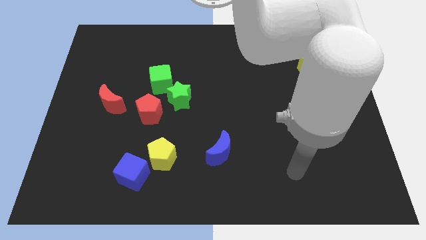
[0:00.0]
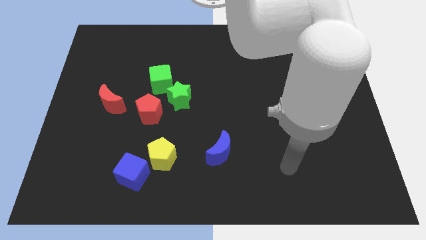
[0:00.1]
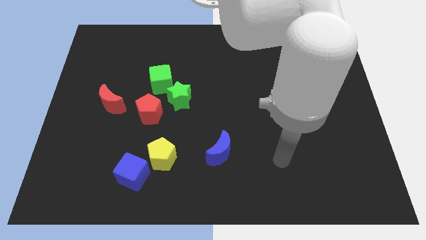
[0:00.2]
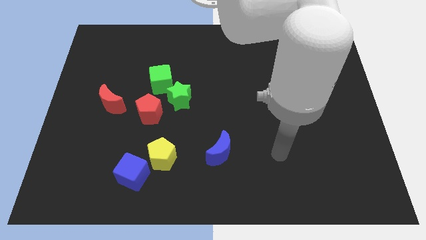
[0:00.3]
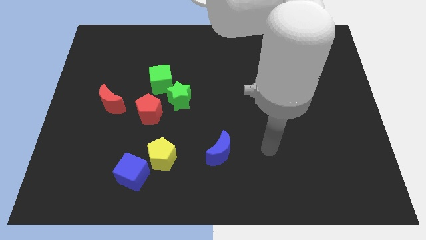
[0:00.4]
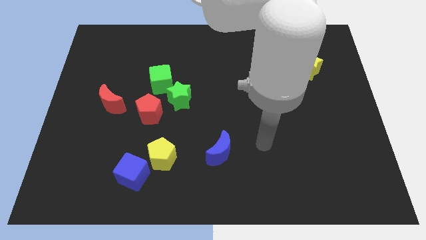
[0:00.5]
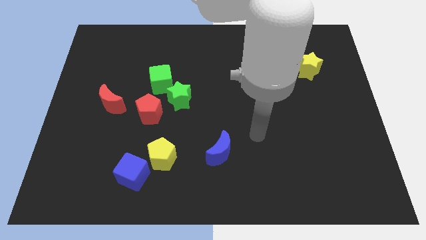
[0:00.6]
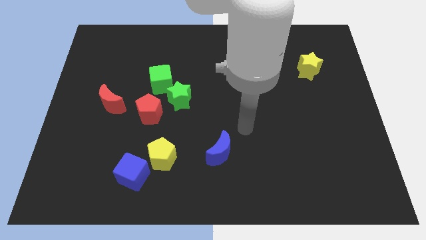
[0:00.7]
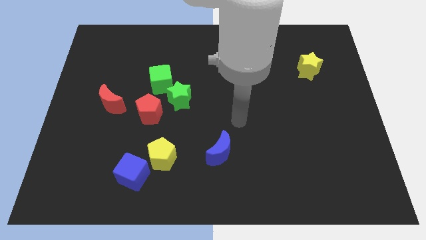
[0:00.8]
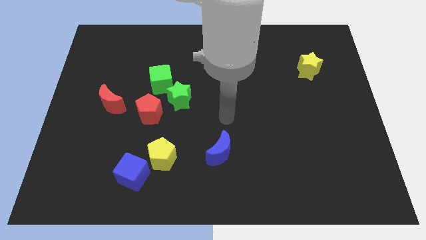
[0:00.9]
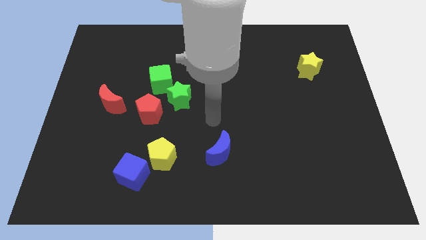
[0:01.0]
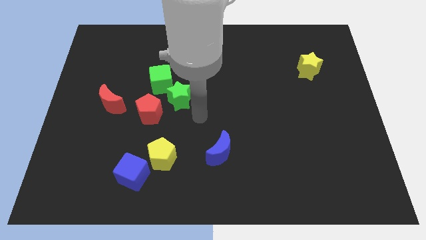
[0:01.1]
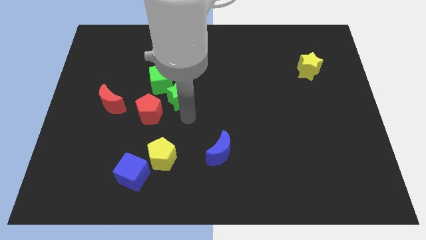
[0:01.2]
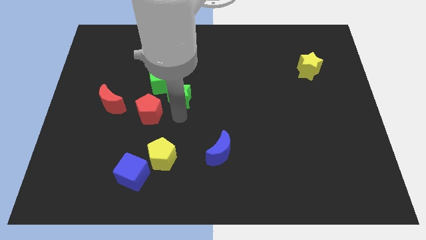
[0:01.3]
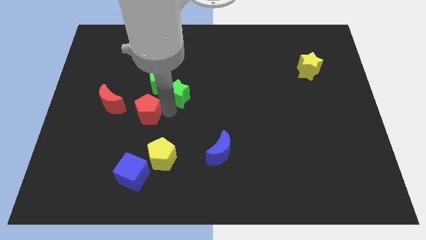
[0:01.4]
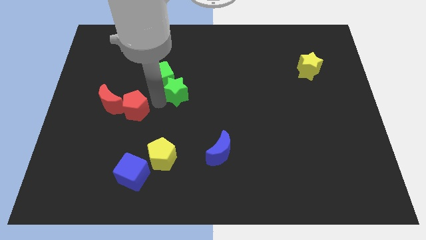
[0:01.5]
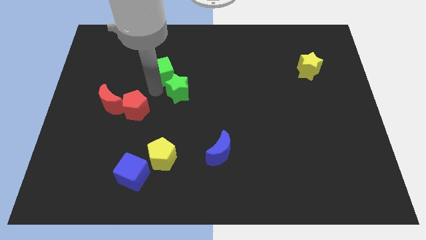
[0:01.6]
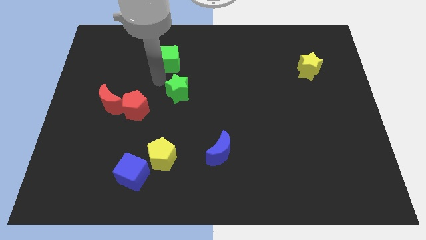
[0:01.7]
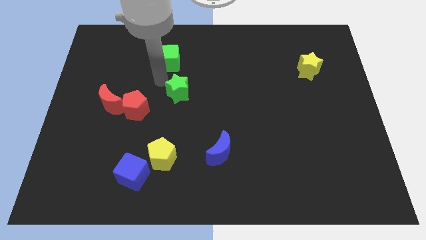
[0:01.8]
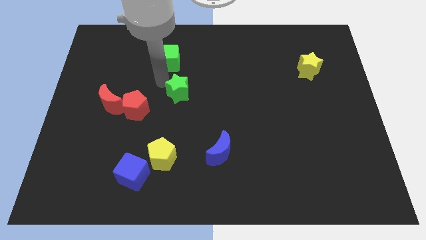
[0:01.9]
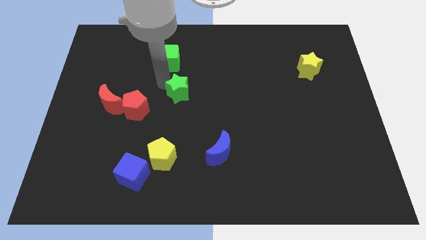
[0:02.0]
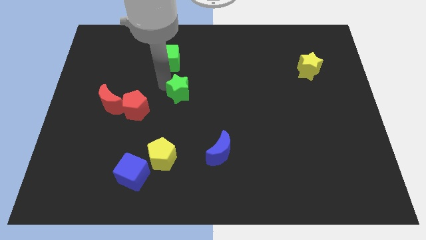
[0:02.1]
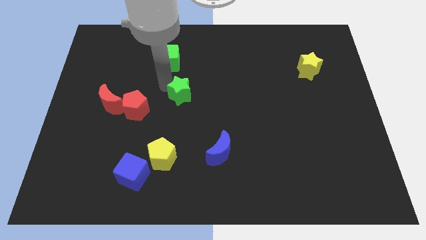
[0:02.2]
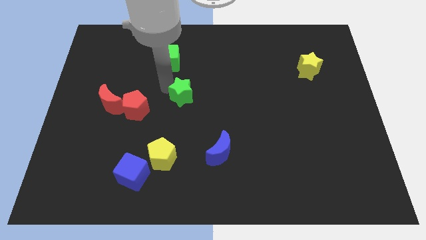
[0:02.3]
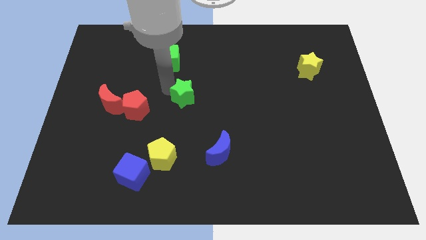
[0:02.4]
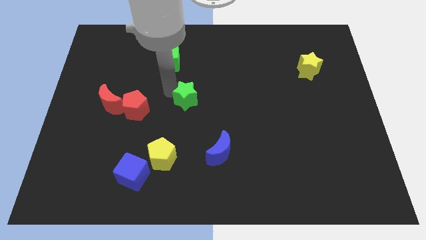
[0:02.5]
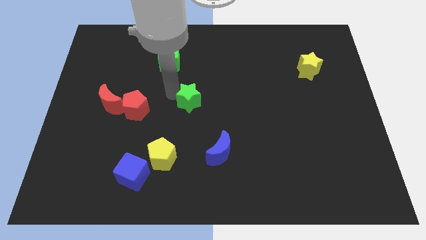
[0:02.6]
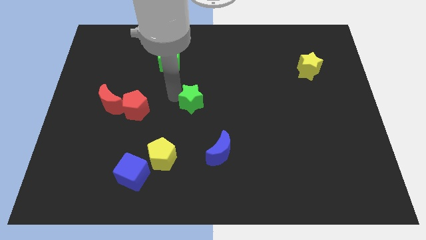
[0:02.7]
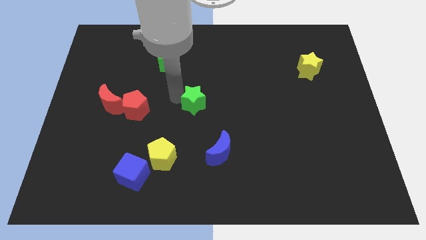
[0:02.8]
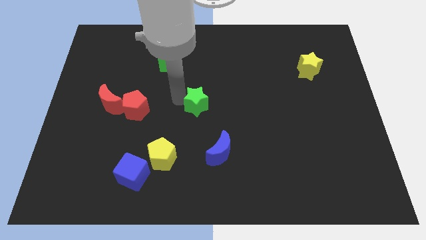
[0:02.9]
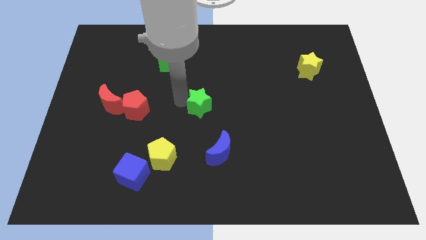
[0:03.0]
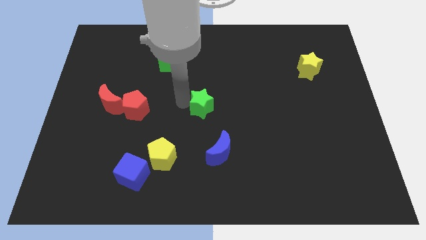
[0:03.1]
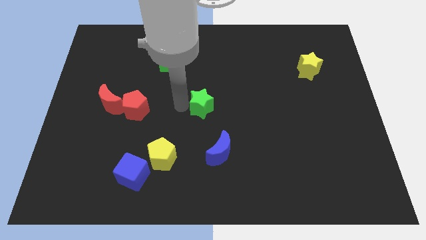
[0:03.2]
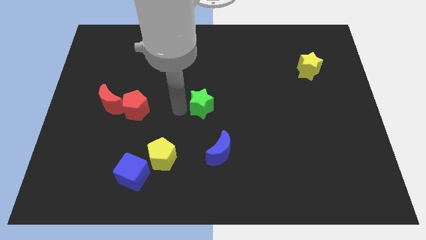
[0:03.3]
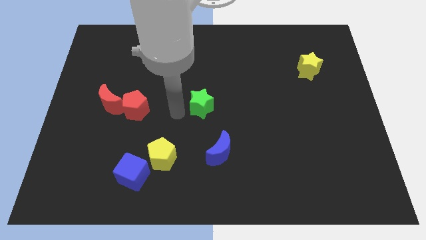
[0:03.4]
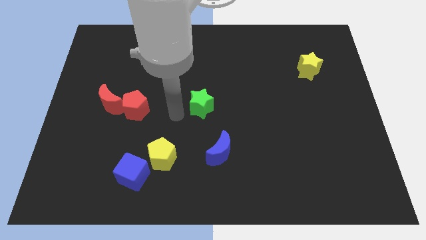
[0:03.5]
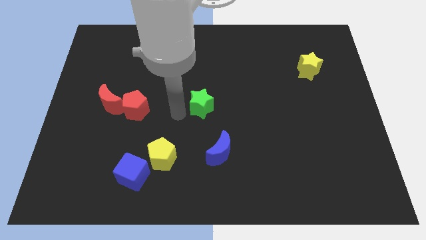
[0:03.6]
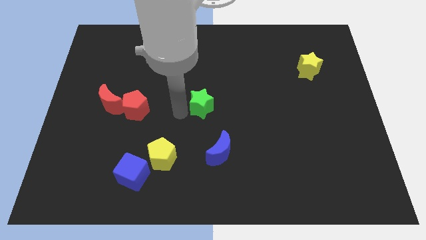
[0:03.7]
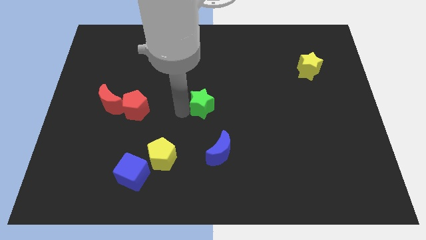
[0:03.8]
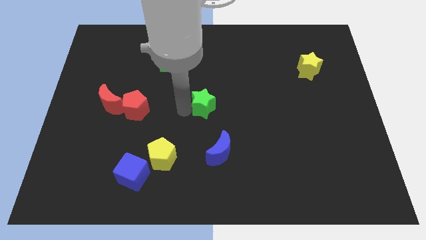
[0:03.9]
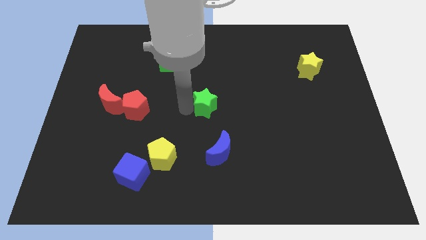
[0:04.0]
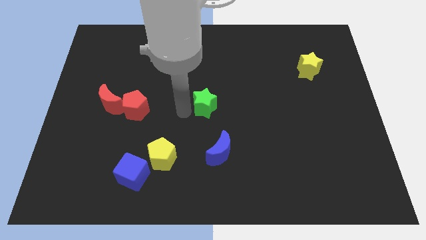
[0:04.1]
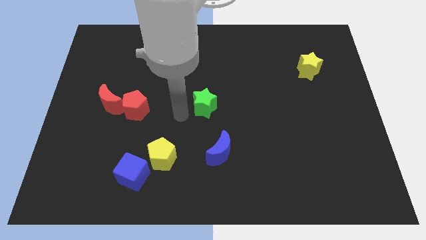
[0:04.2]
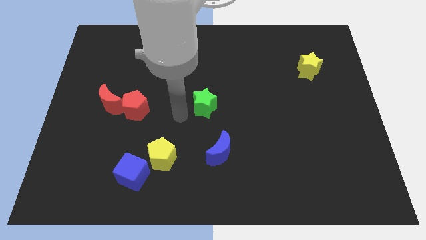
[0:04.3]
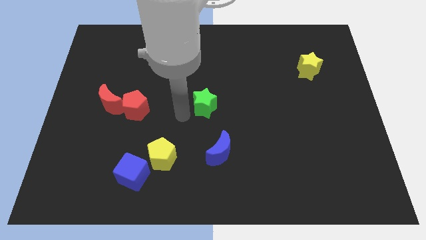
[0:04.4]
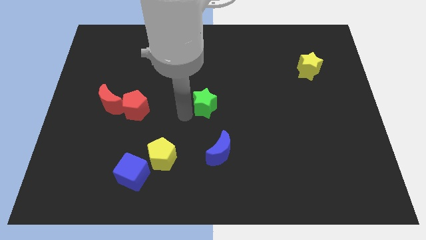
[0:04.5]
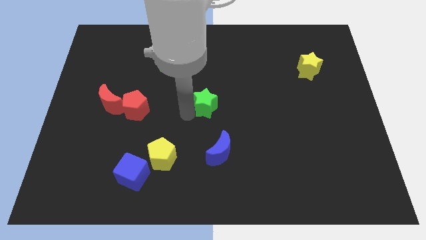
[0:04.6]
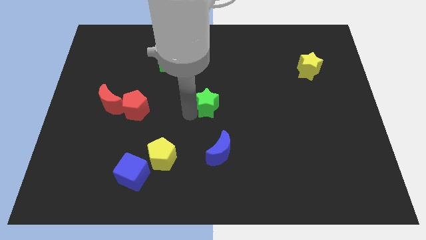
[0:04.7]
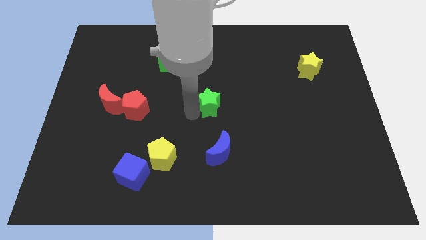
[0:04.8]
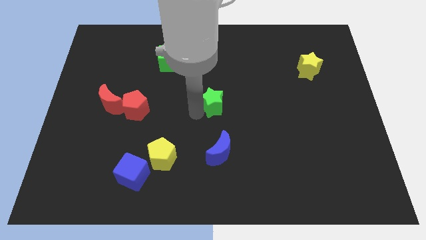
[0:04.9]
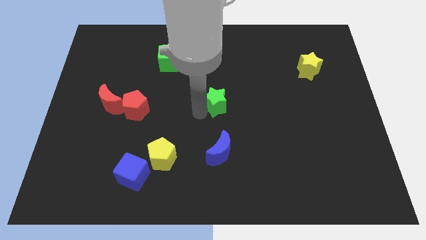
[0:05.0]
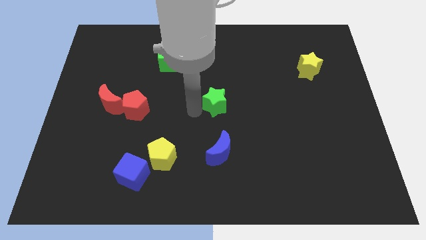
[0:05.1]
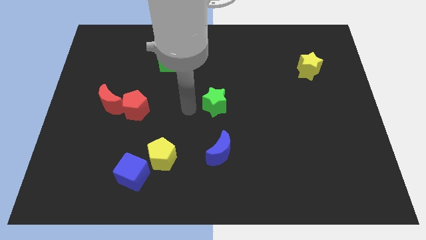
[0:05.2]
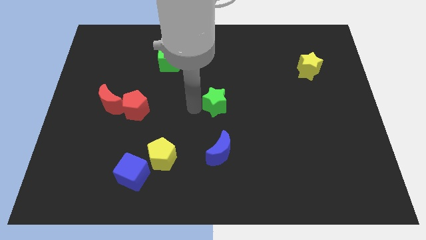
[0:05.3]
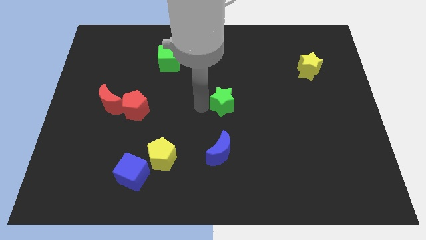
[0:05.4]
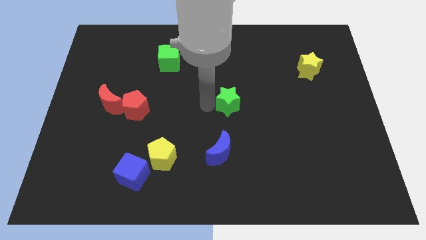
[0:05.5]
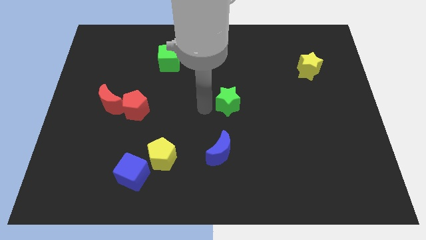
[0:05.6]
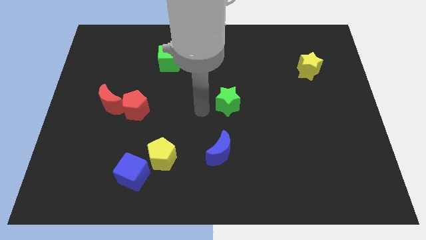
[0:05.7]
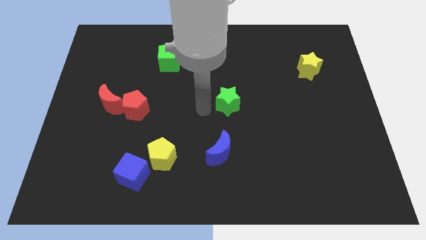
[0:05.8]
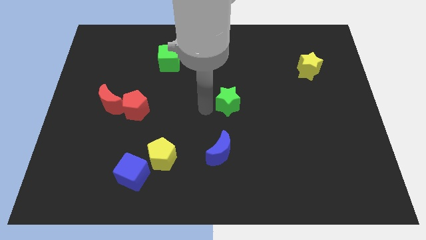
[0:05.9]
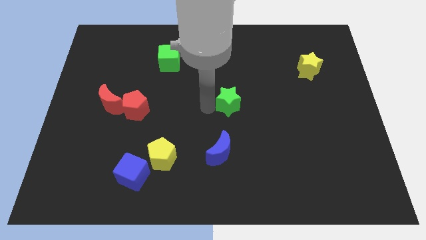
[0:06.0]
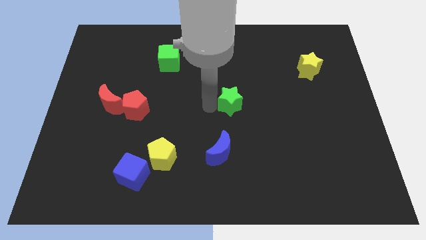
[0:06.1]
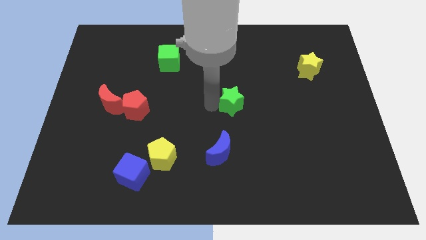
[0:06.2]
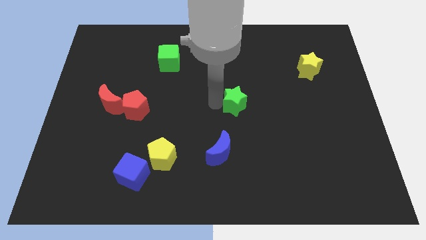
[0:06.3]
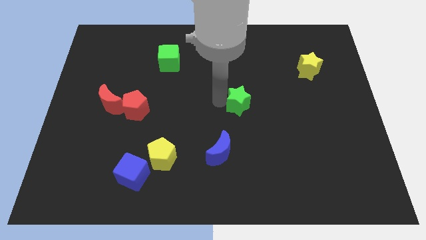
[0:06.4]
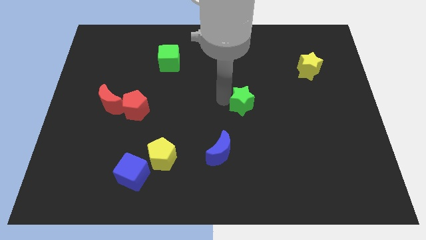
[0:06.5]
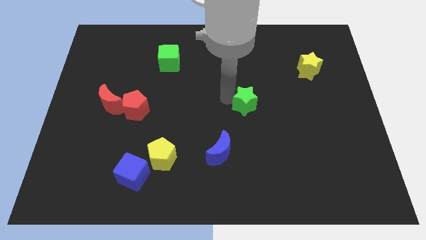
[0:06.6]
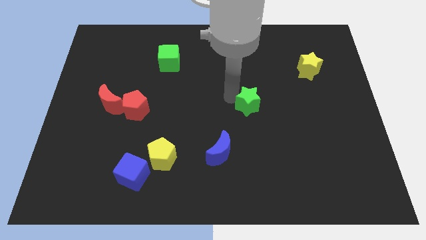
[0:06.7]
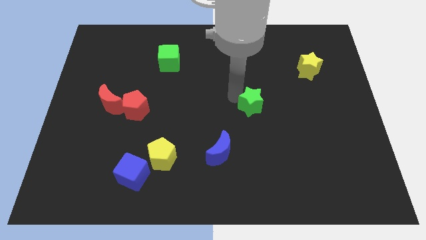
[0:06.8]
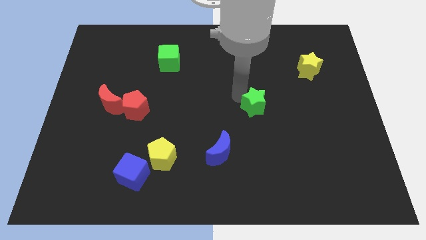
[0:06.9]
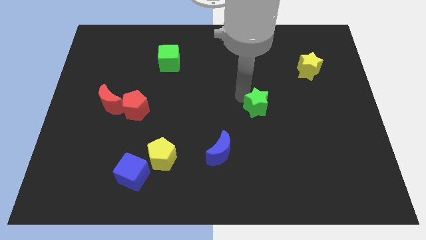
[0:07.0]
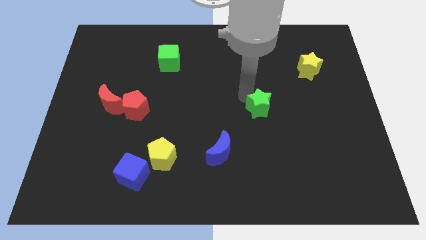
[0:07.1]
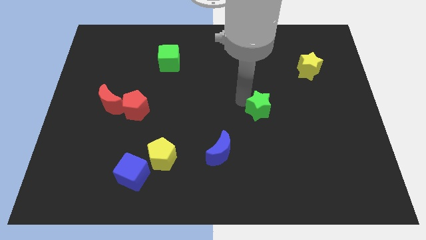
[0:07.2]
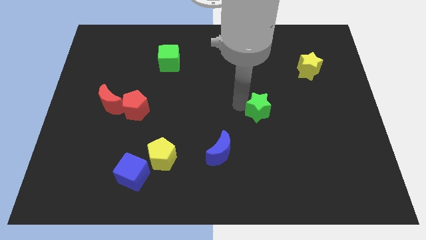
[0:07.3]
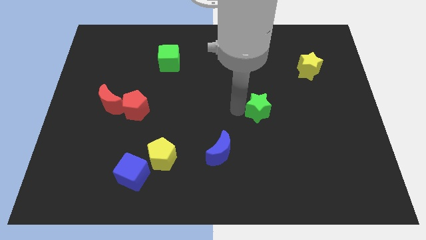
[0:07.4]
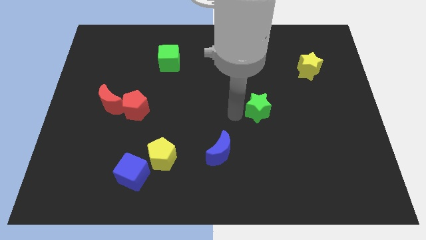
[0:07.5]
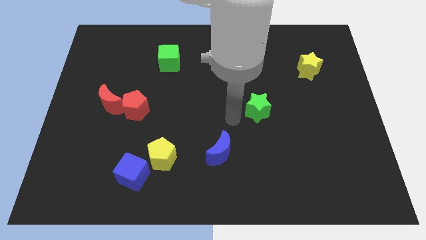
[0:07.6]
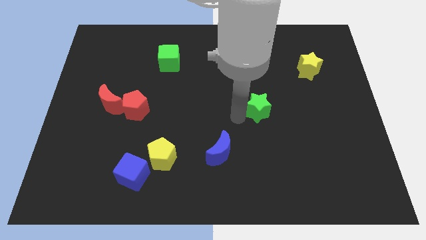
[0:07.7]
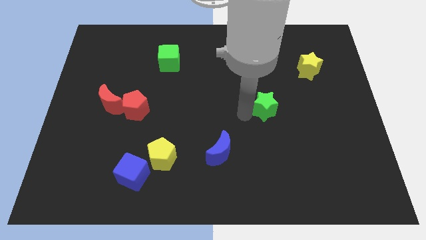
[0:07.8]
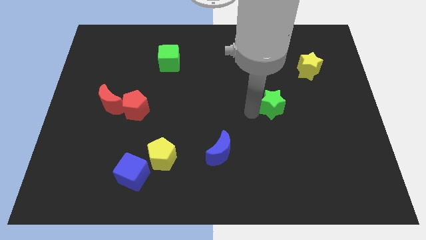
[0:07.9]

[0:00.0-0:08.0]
slide the green star to the right
